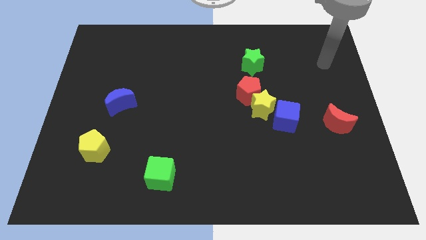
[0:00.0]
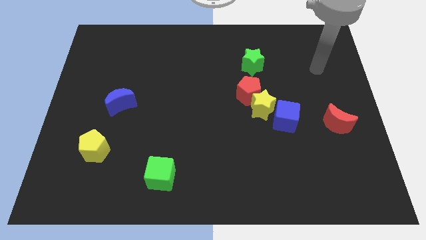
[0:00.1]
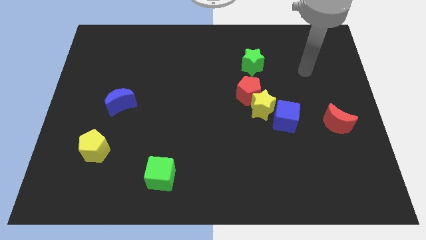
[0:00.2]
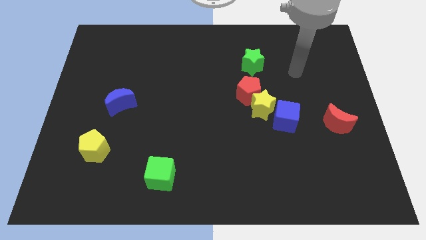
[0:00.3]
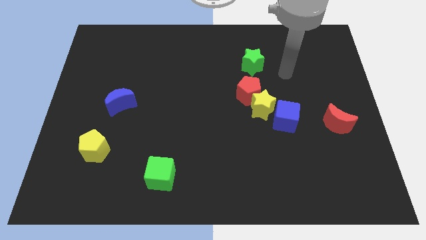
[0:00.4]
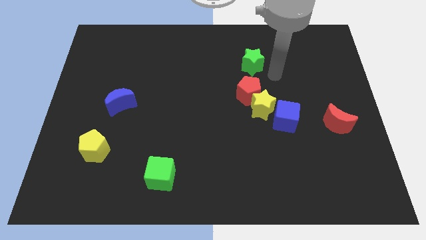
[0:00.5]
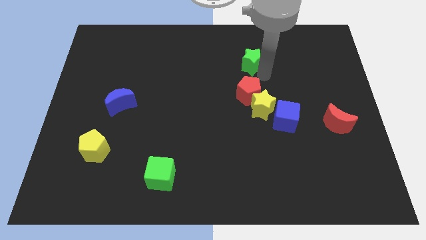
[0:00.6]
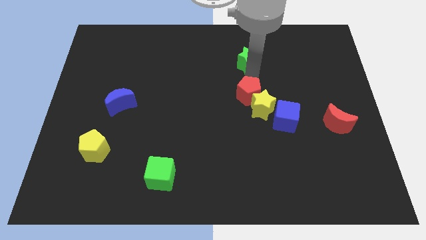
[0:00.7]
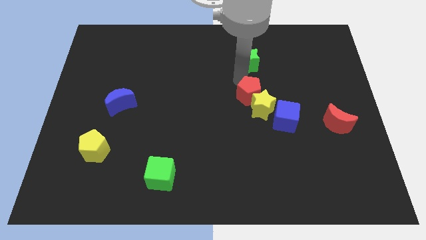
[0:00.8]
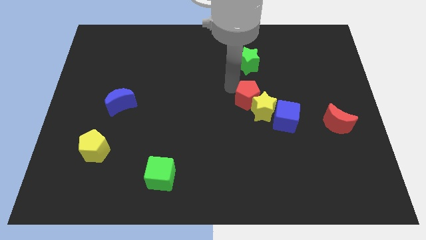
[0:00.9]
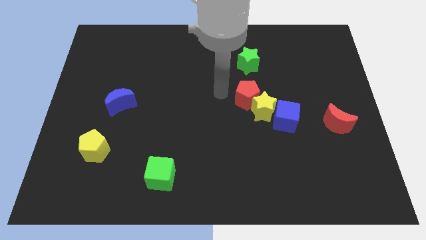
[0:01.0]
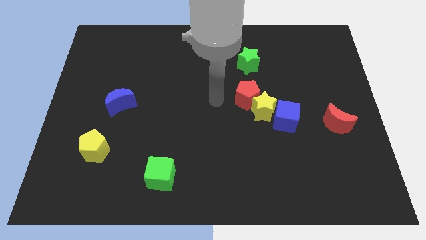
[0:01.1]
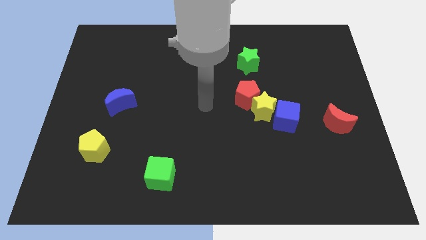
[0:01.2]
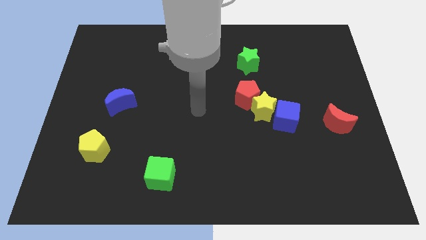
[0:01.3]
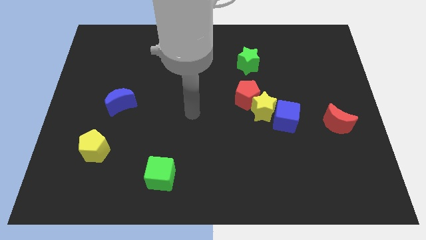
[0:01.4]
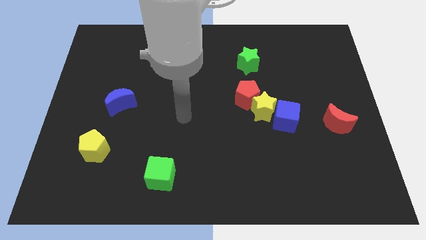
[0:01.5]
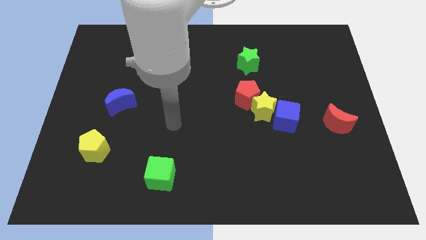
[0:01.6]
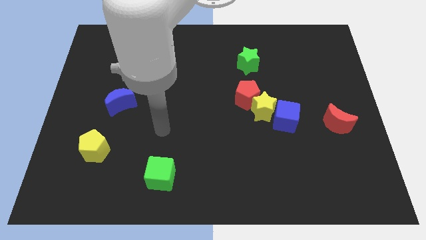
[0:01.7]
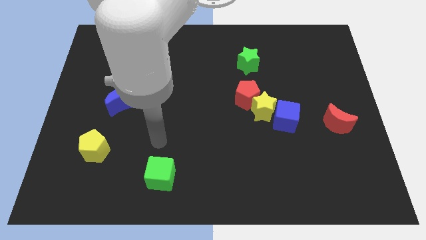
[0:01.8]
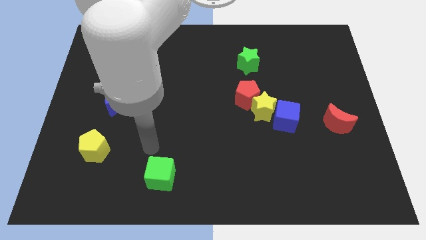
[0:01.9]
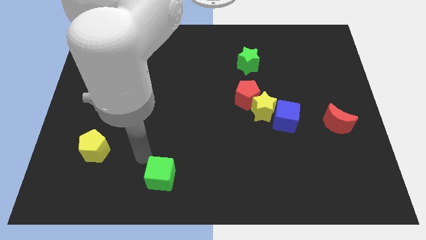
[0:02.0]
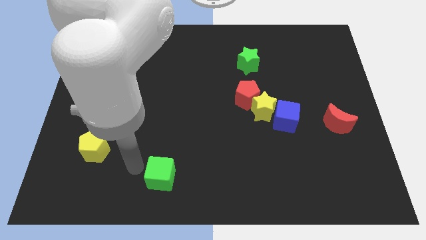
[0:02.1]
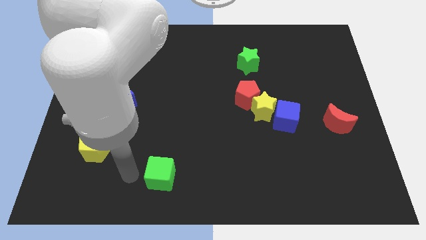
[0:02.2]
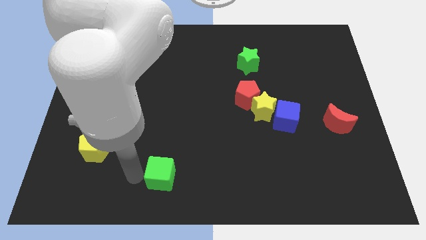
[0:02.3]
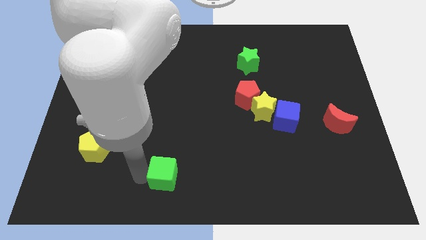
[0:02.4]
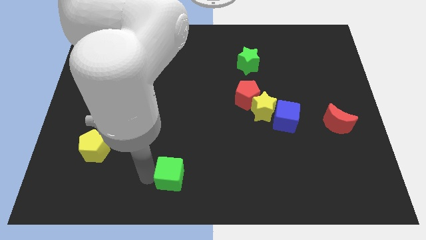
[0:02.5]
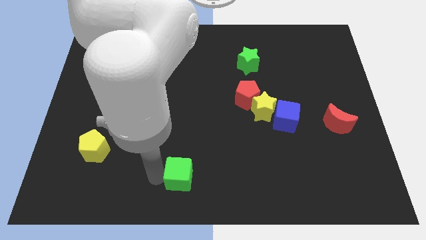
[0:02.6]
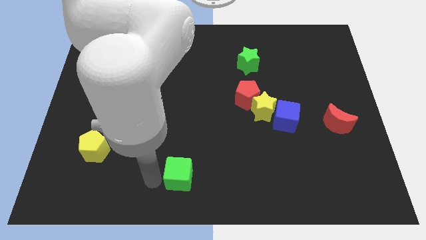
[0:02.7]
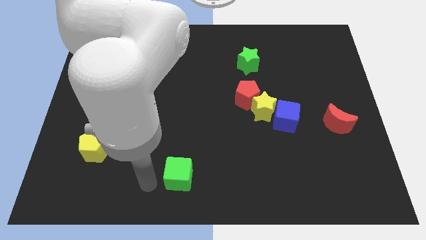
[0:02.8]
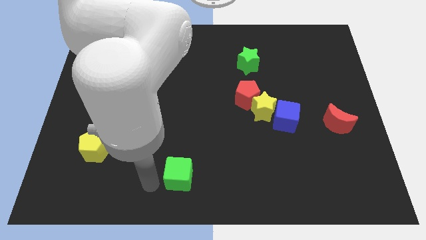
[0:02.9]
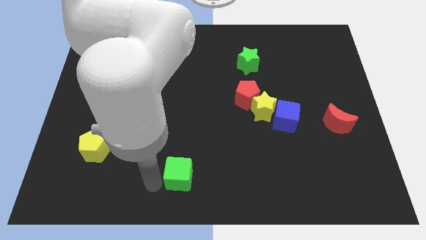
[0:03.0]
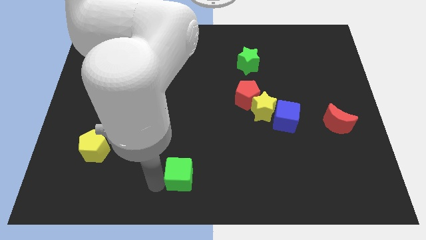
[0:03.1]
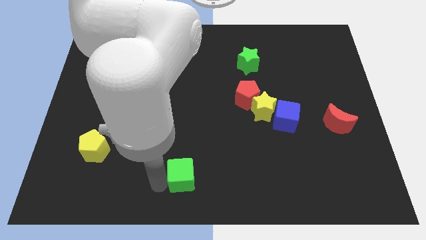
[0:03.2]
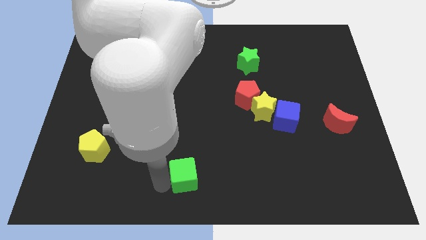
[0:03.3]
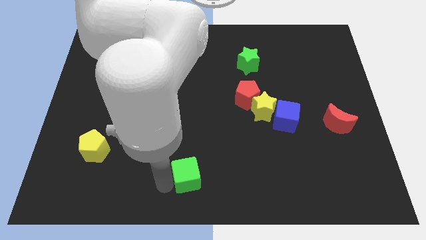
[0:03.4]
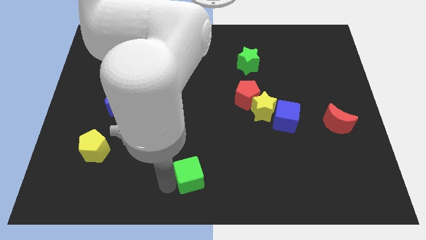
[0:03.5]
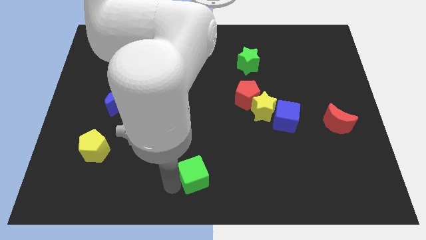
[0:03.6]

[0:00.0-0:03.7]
slightly push the green cube to the right

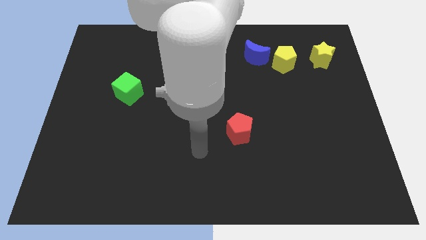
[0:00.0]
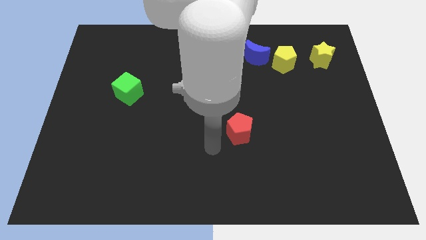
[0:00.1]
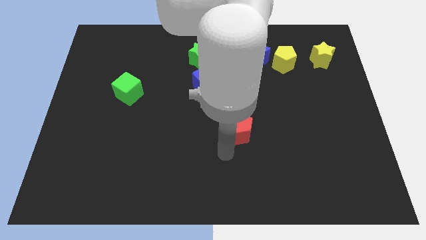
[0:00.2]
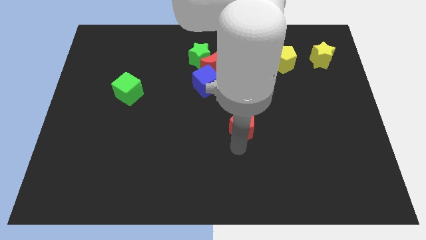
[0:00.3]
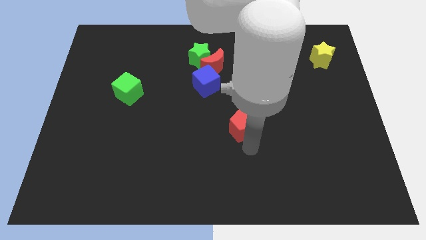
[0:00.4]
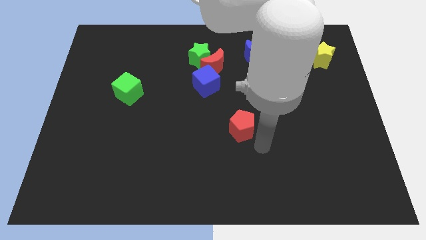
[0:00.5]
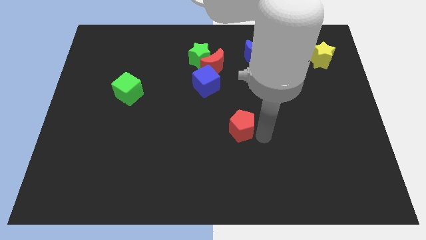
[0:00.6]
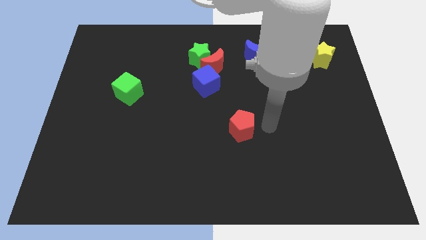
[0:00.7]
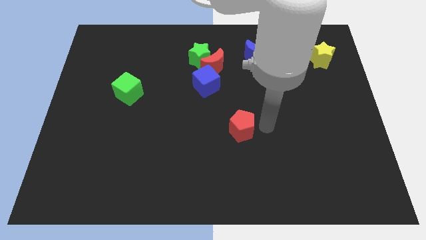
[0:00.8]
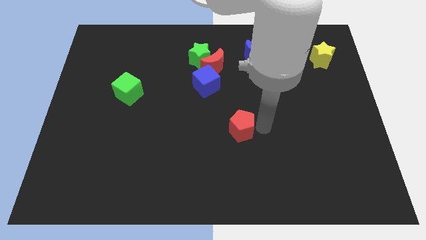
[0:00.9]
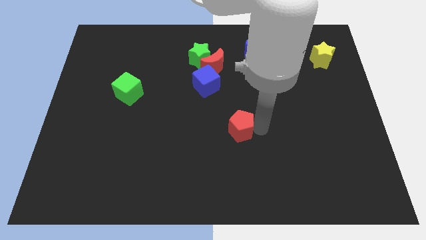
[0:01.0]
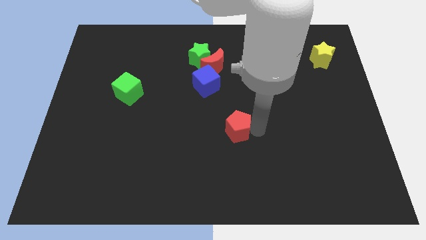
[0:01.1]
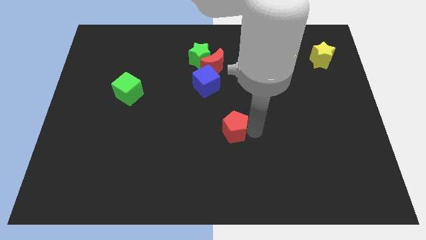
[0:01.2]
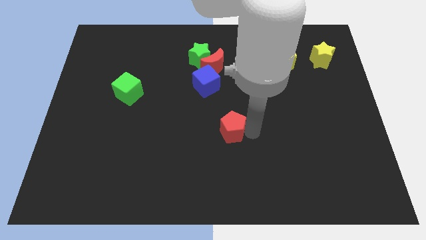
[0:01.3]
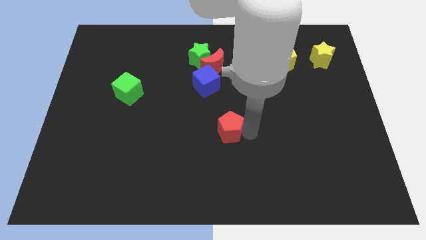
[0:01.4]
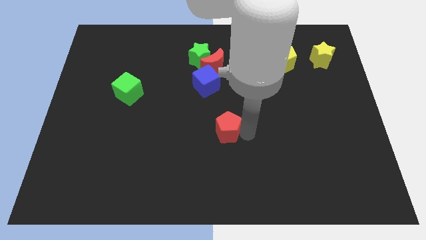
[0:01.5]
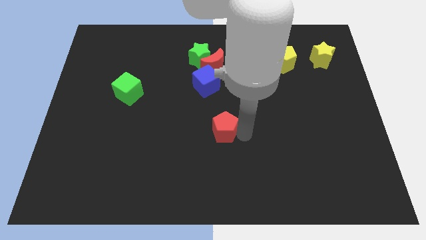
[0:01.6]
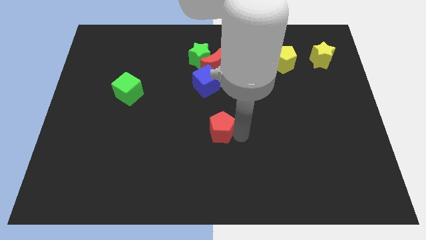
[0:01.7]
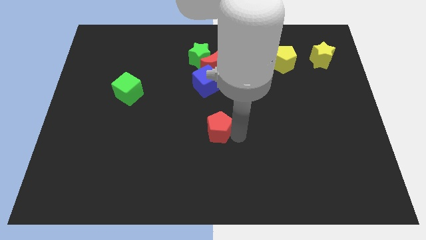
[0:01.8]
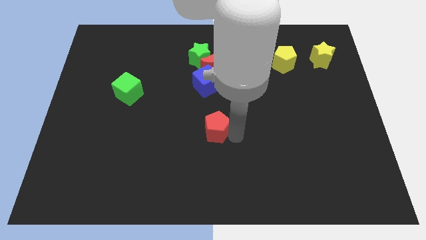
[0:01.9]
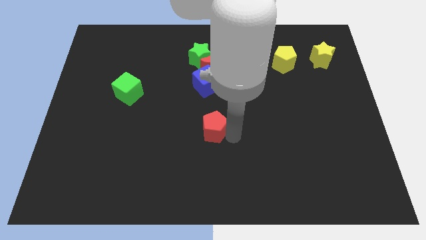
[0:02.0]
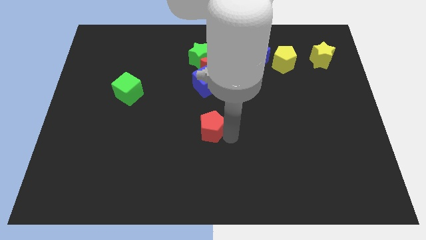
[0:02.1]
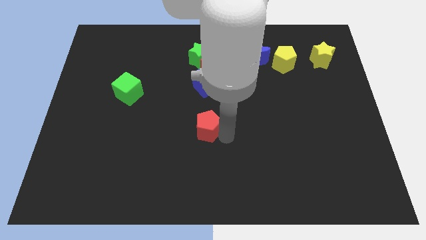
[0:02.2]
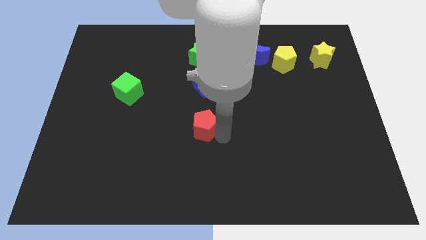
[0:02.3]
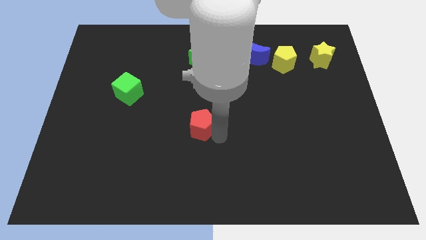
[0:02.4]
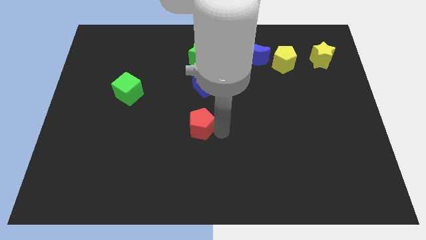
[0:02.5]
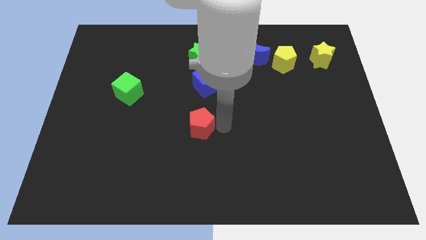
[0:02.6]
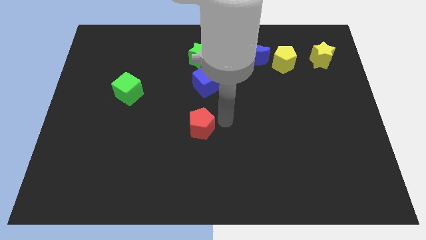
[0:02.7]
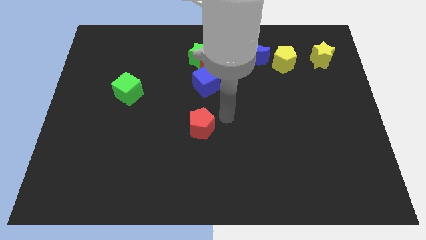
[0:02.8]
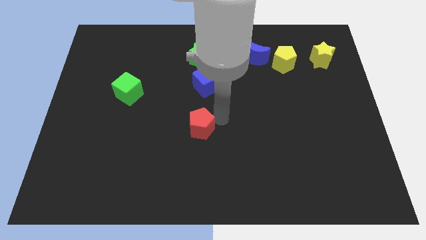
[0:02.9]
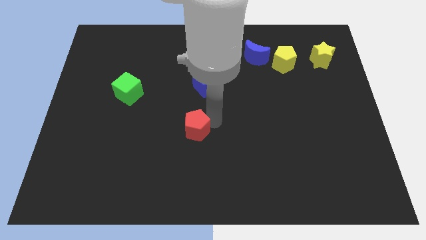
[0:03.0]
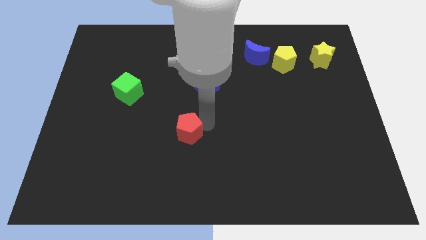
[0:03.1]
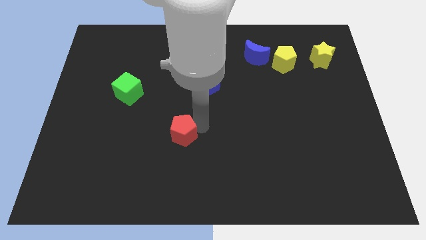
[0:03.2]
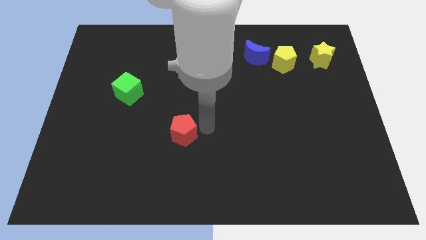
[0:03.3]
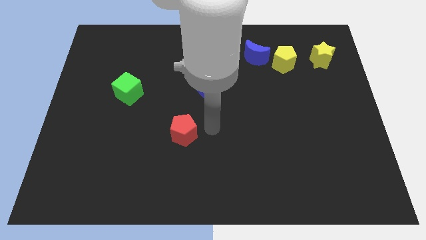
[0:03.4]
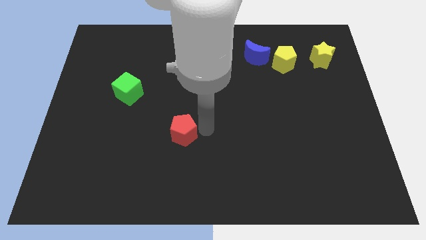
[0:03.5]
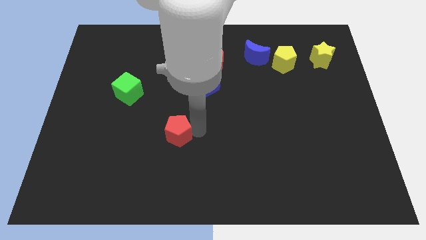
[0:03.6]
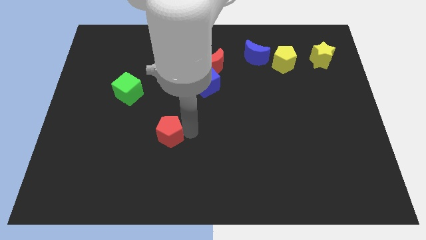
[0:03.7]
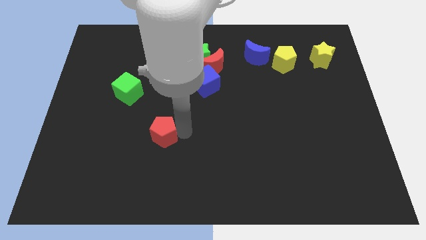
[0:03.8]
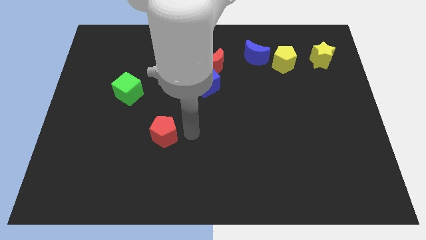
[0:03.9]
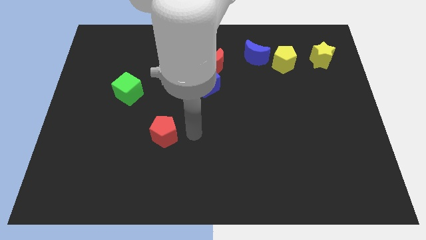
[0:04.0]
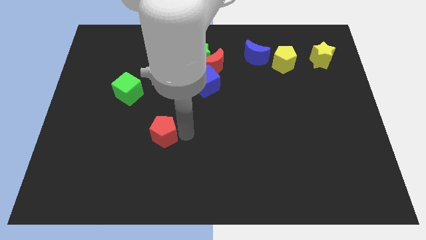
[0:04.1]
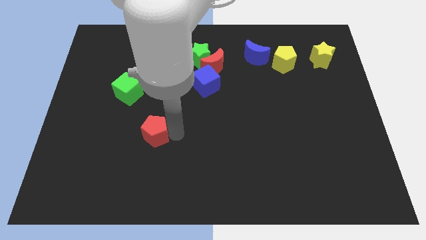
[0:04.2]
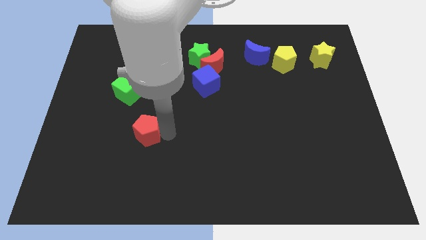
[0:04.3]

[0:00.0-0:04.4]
push the red pentagon left

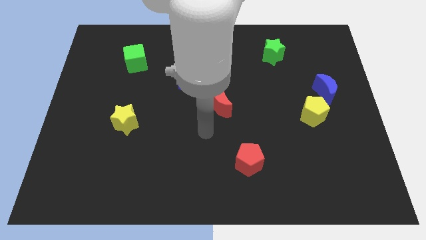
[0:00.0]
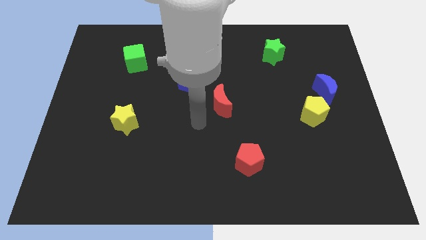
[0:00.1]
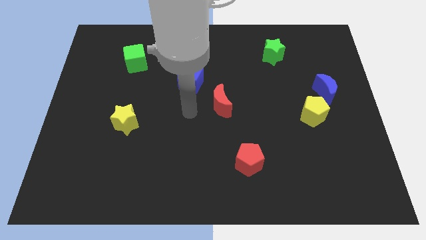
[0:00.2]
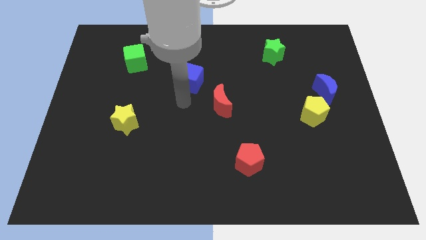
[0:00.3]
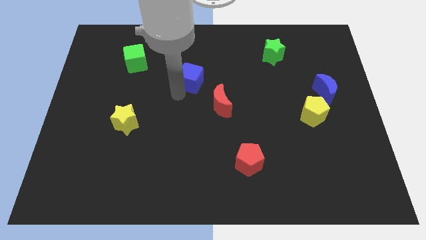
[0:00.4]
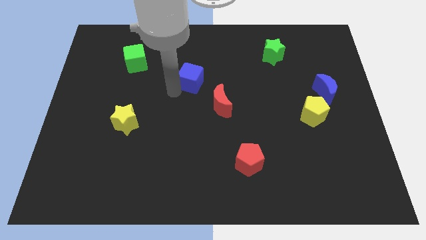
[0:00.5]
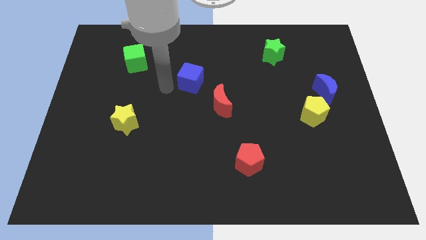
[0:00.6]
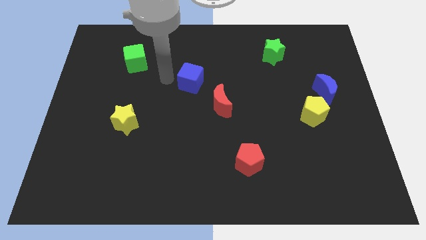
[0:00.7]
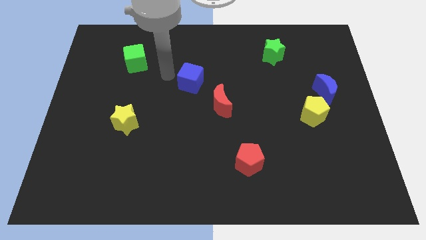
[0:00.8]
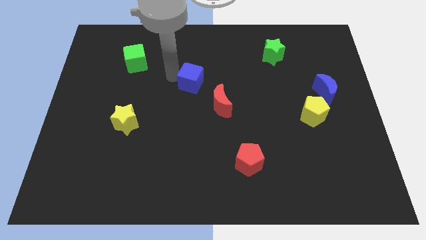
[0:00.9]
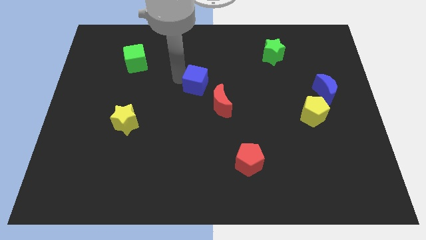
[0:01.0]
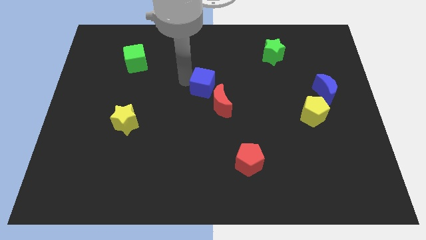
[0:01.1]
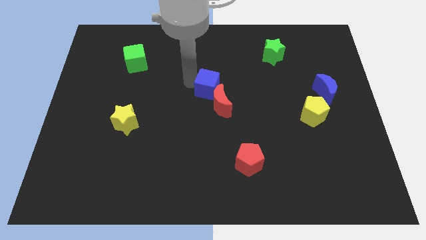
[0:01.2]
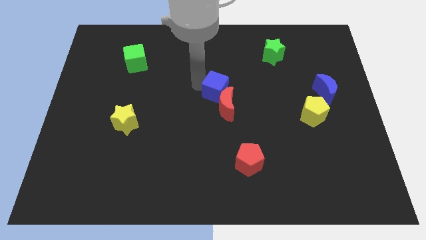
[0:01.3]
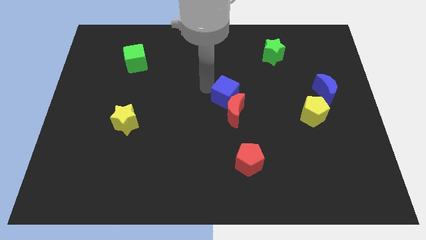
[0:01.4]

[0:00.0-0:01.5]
slide the blue cube downwards and to the right diagonally a bit
